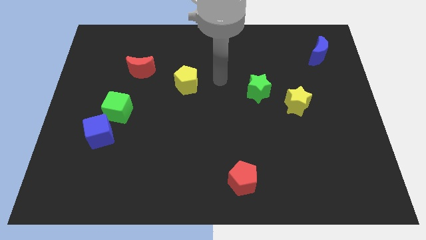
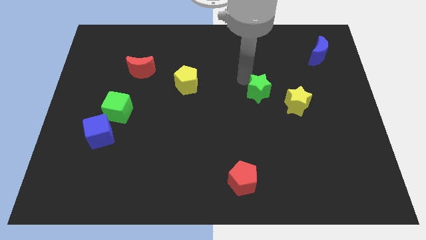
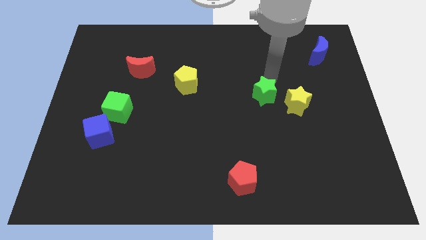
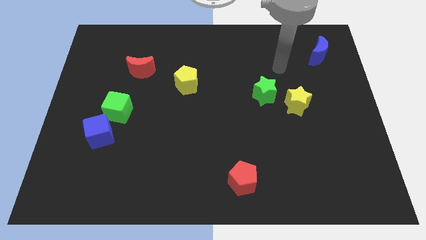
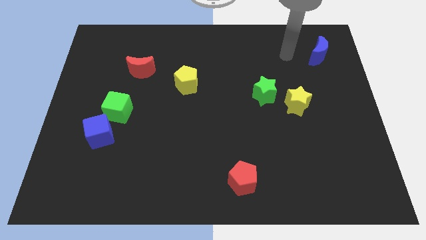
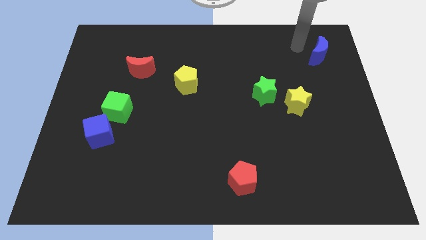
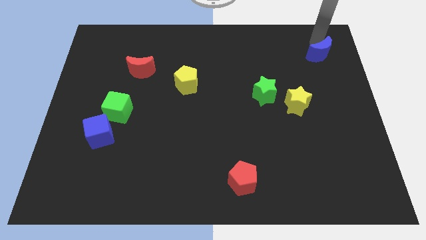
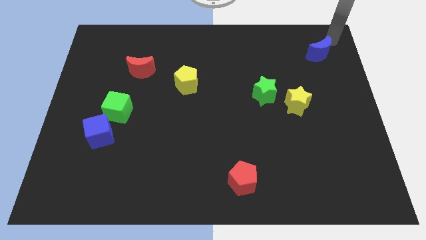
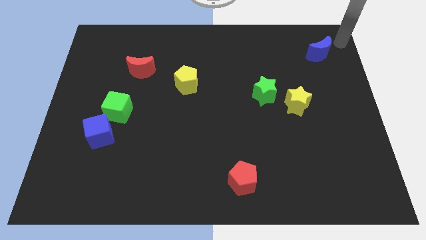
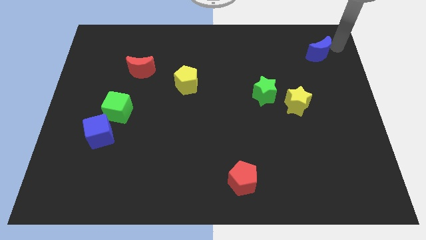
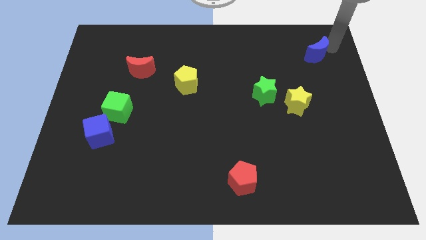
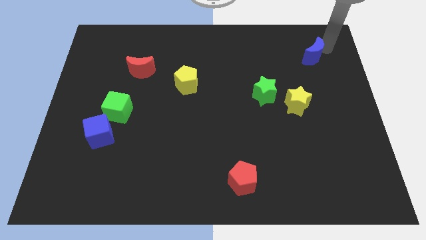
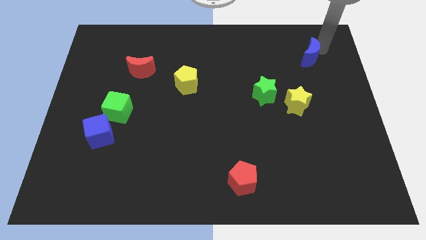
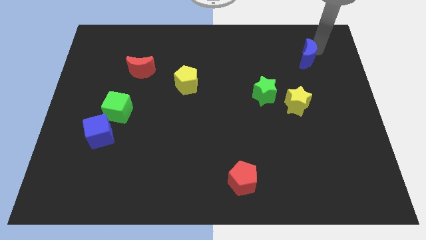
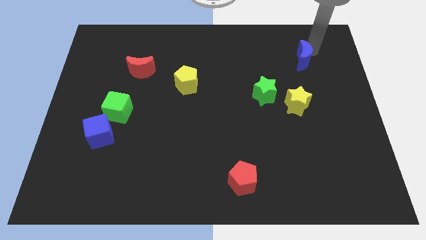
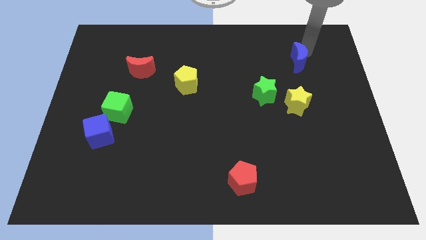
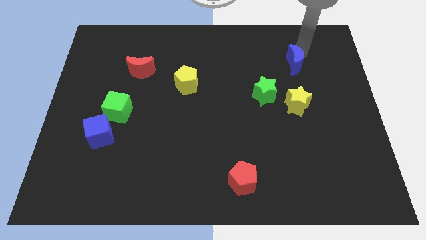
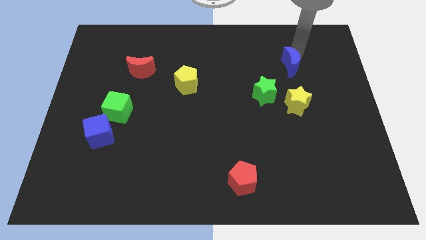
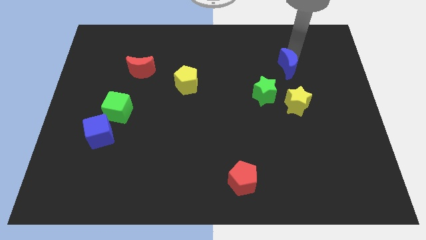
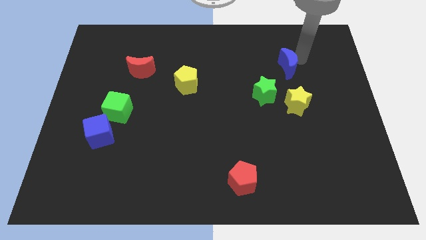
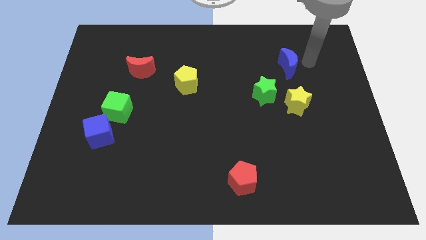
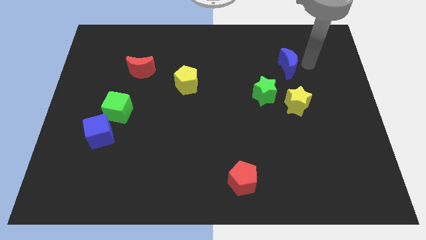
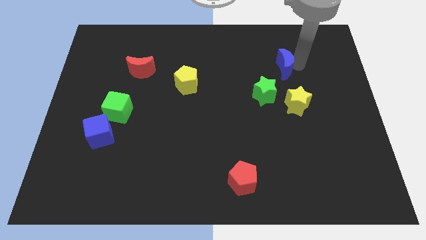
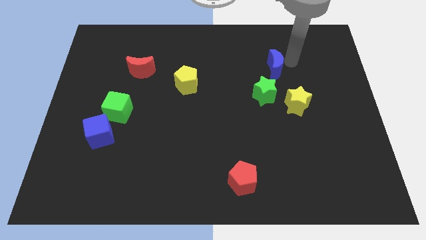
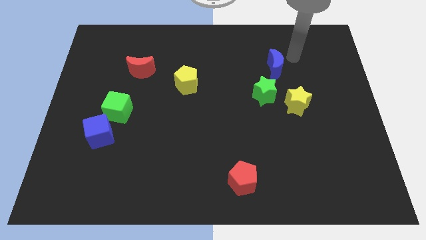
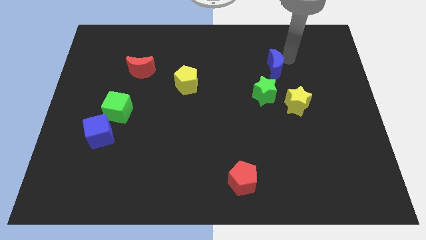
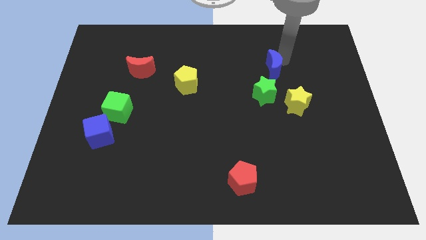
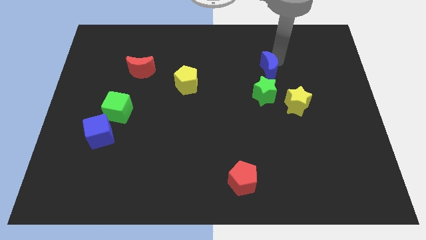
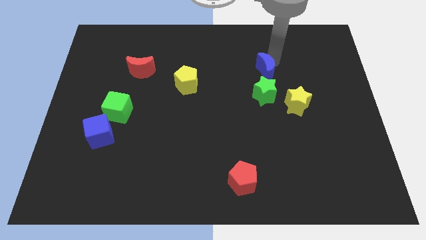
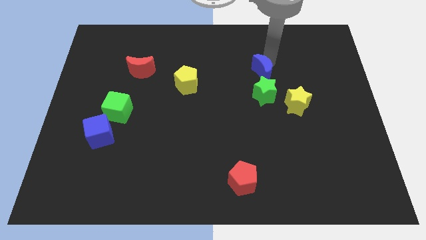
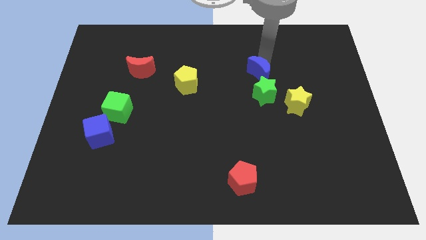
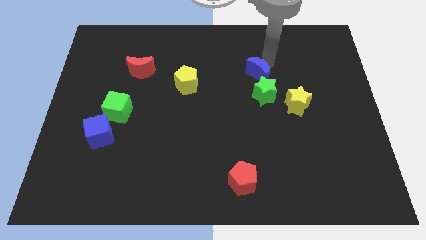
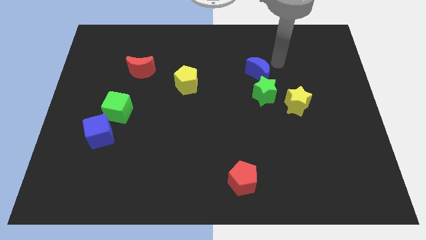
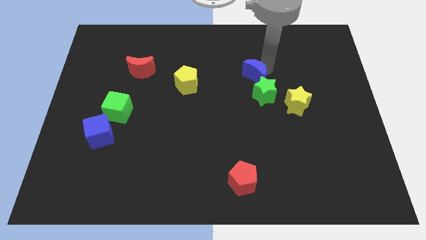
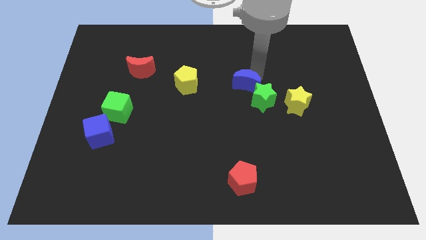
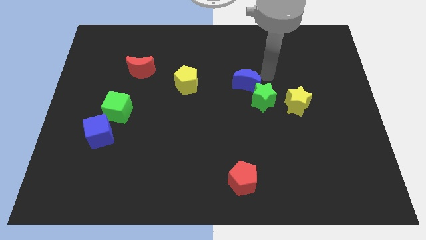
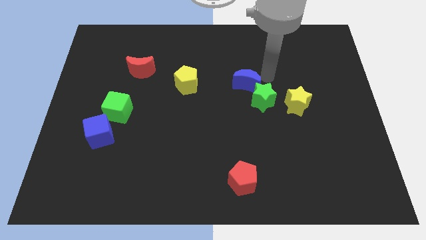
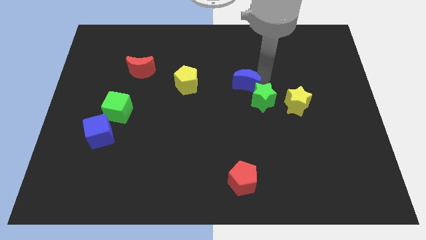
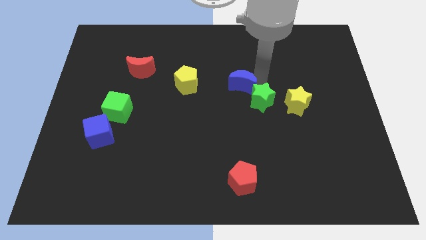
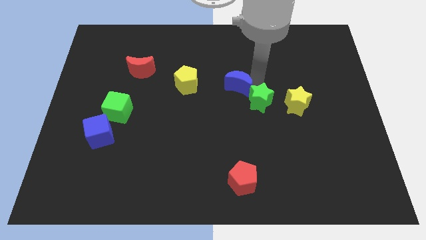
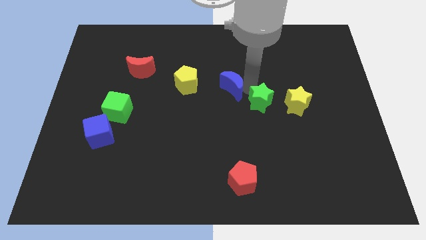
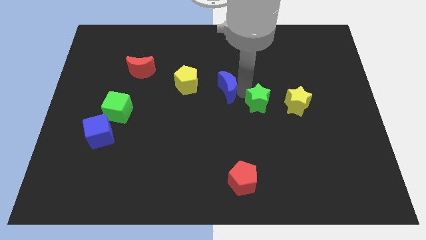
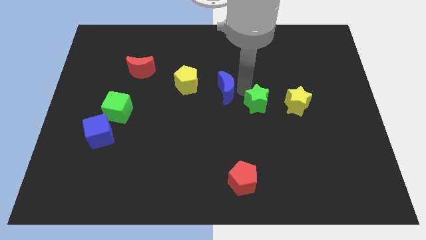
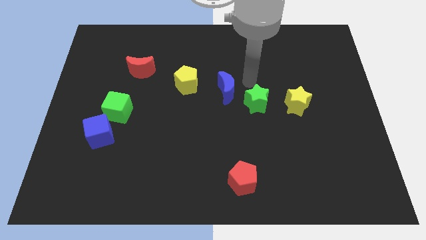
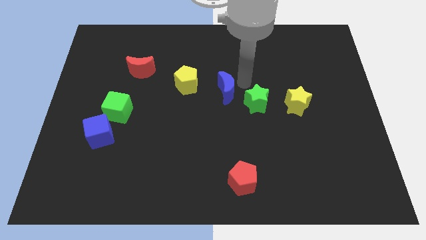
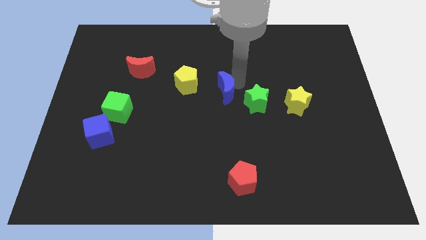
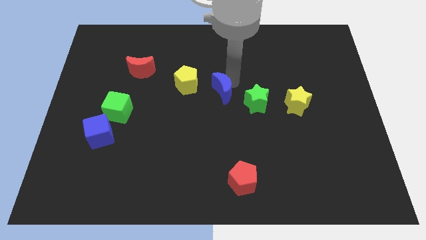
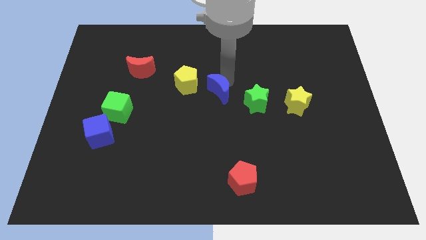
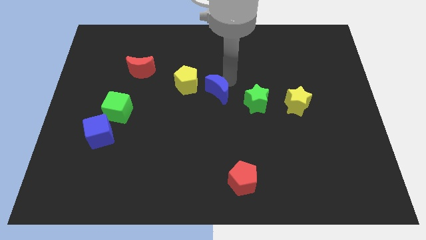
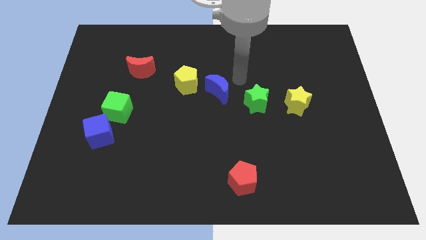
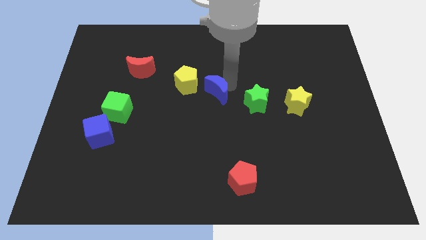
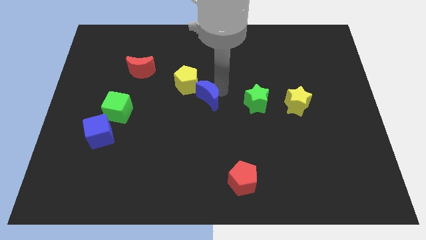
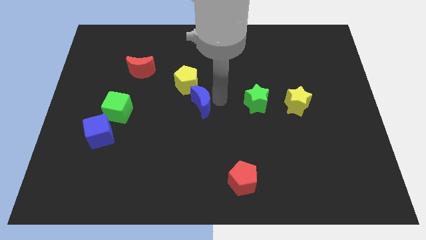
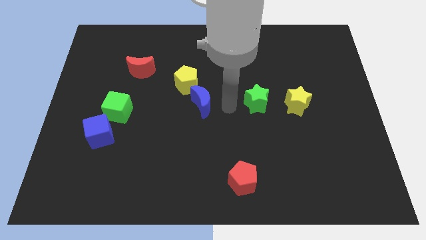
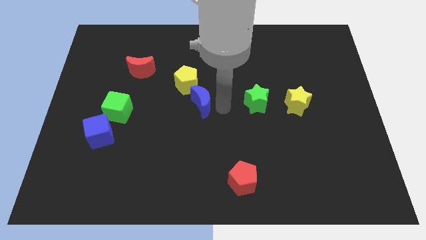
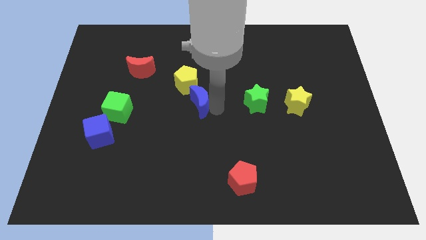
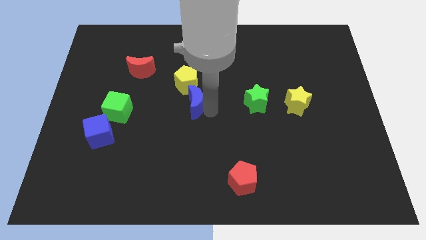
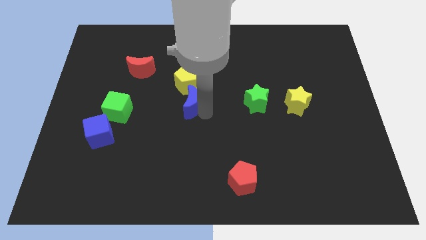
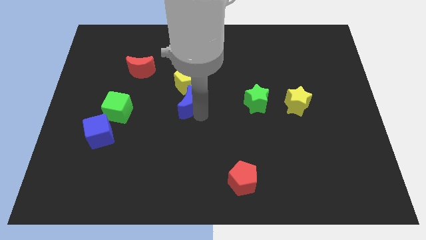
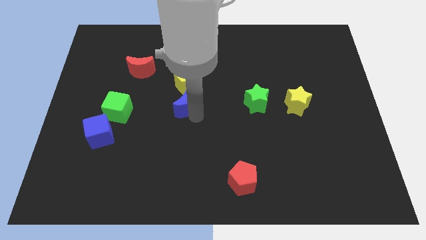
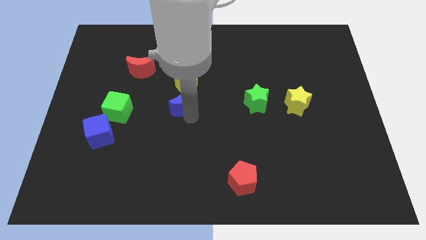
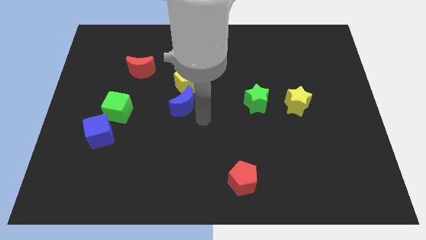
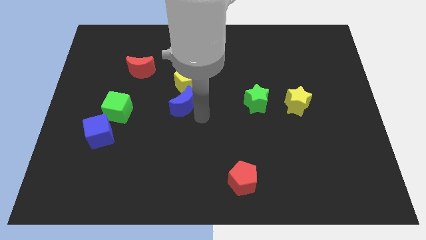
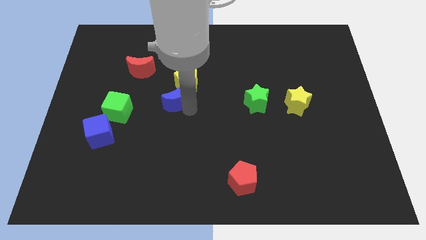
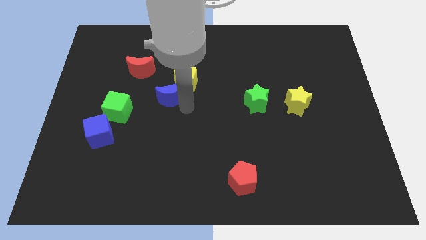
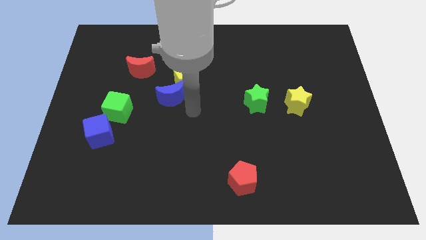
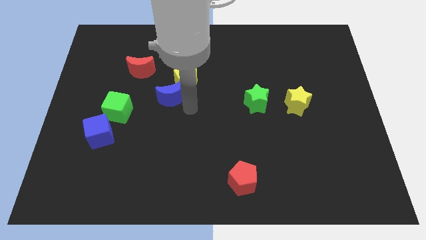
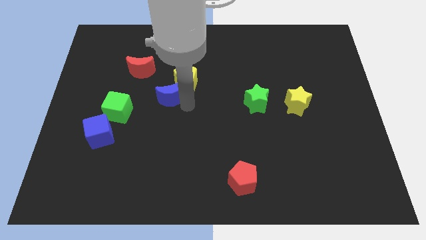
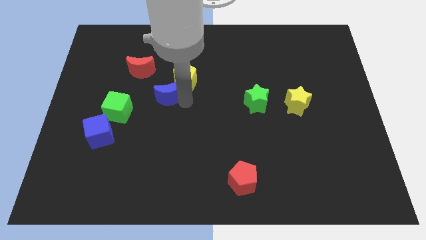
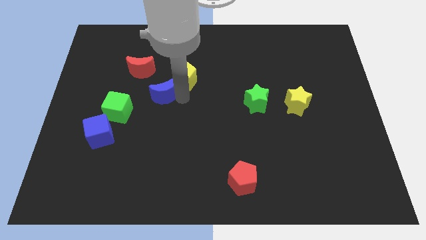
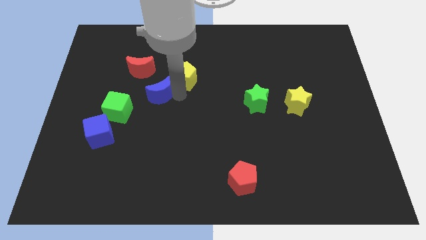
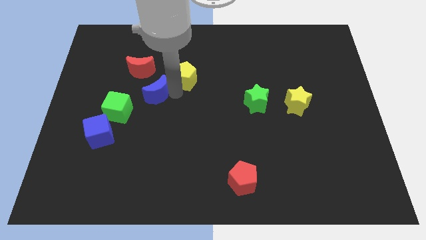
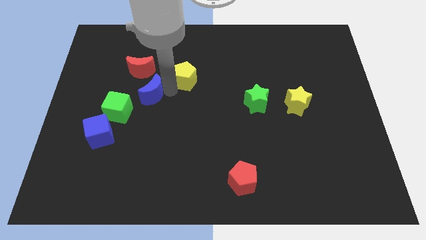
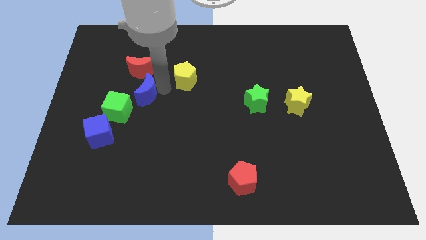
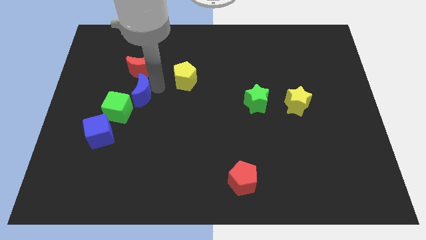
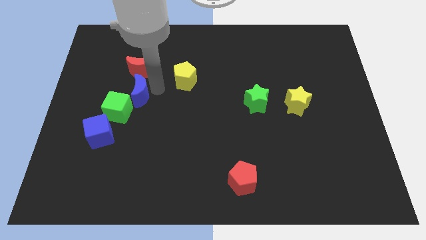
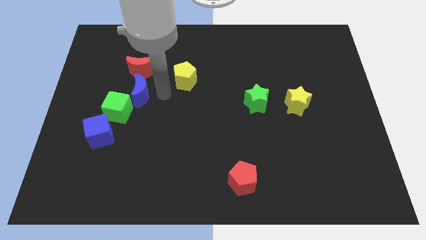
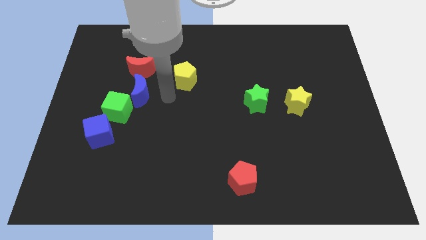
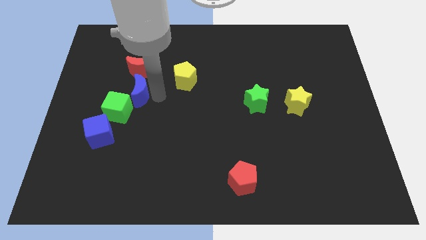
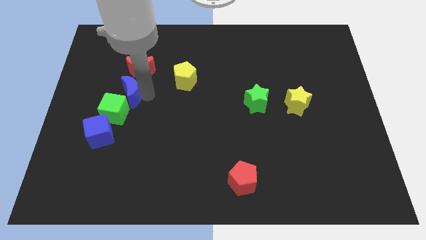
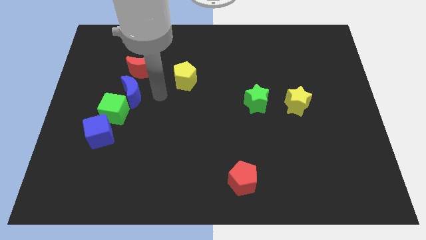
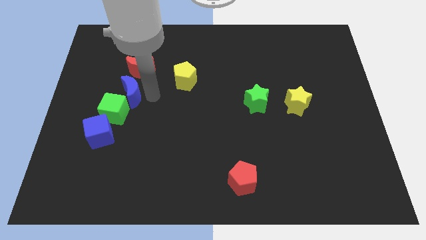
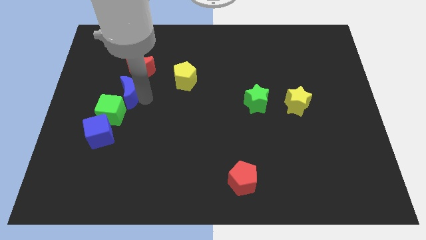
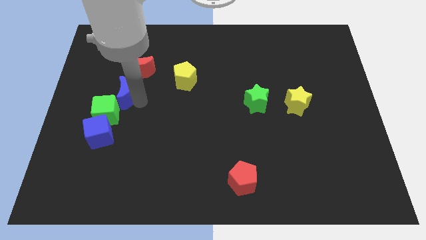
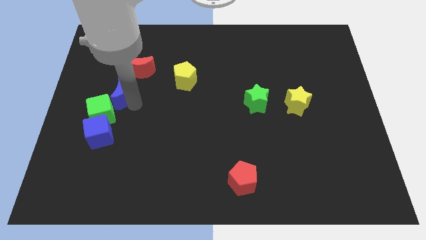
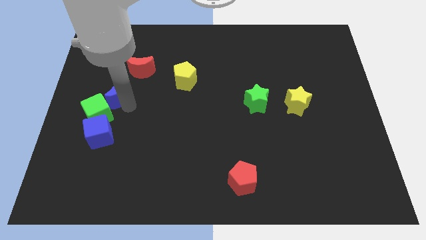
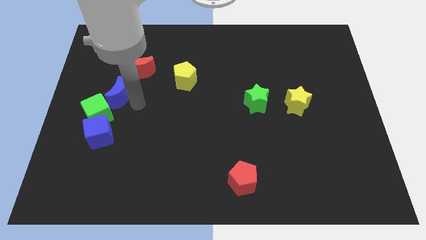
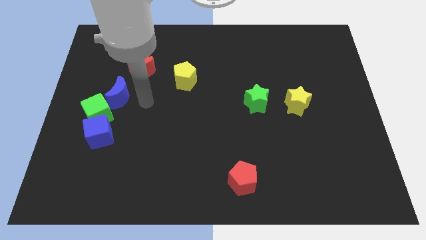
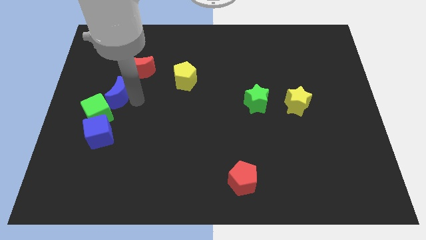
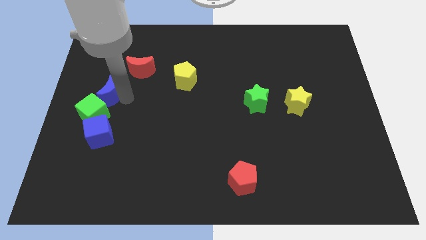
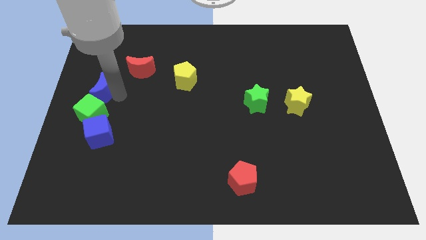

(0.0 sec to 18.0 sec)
slide the blue moon to the center left
